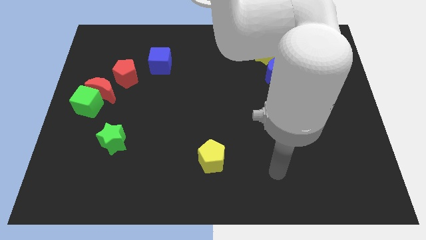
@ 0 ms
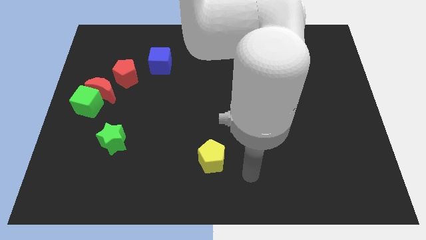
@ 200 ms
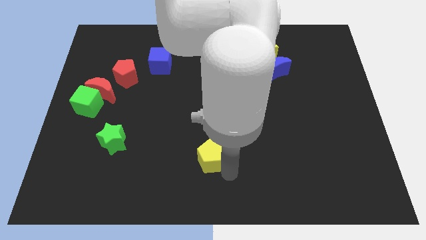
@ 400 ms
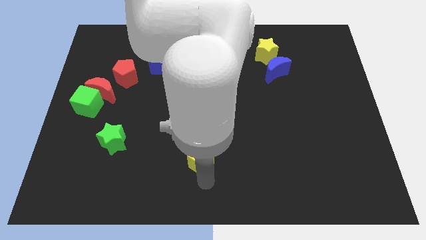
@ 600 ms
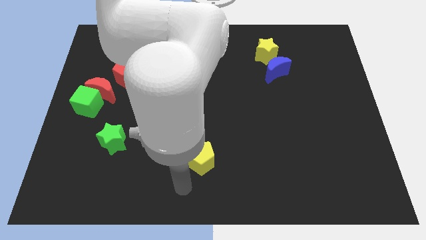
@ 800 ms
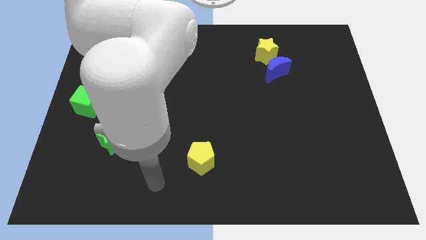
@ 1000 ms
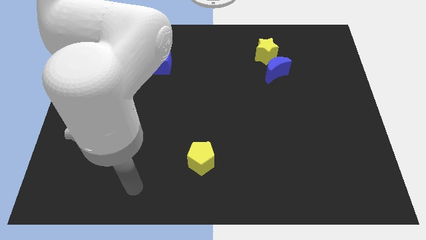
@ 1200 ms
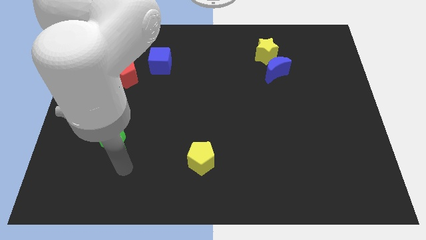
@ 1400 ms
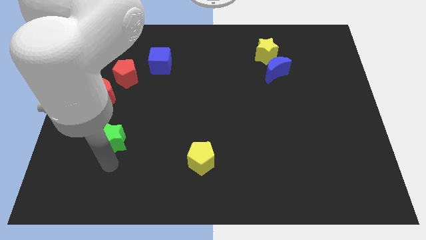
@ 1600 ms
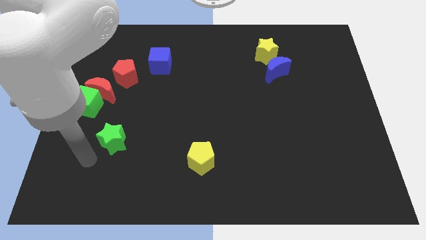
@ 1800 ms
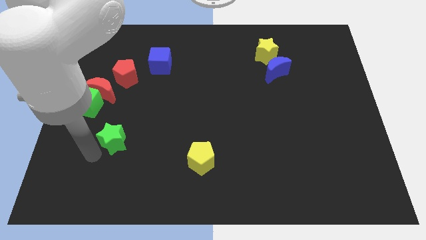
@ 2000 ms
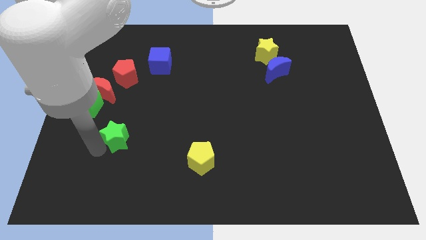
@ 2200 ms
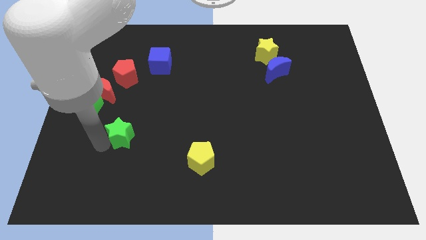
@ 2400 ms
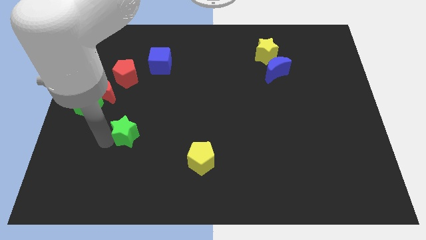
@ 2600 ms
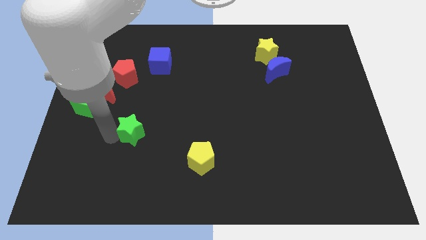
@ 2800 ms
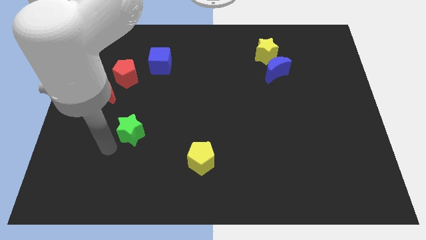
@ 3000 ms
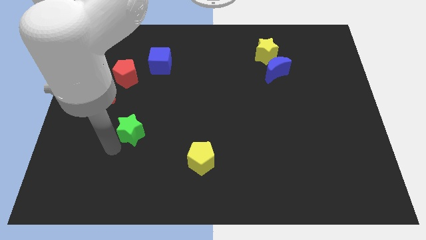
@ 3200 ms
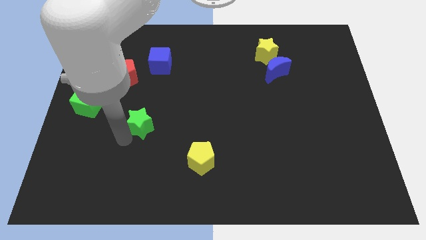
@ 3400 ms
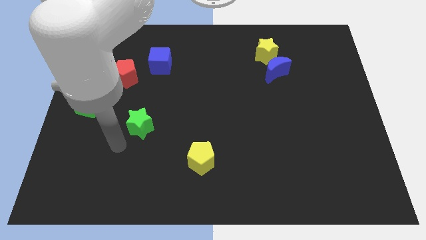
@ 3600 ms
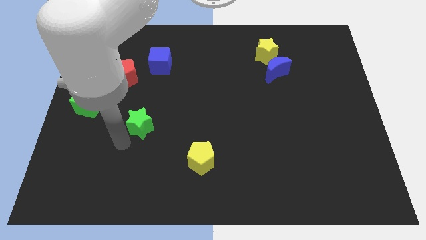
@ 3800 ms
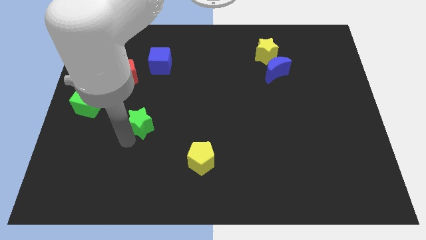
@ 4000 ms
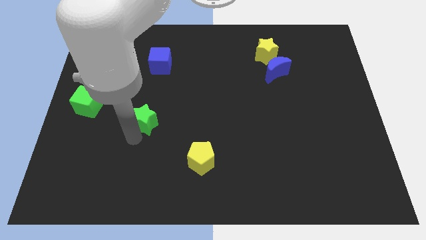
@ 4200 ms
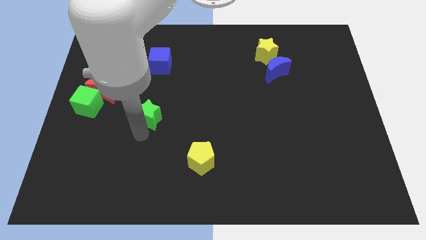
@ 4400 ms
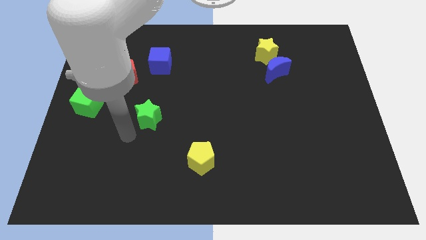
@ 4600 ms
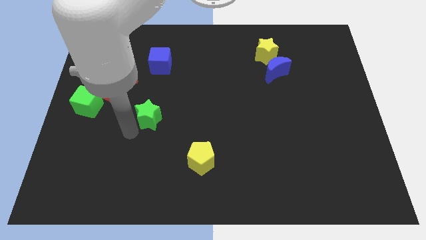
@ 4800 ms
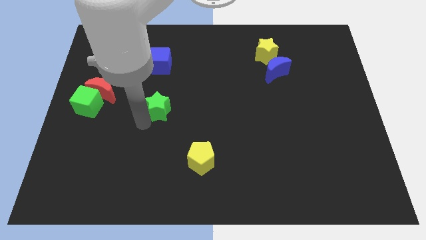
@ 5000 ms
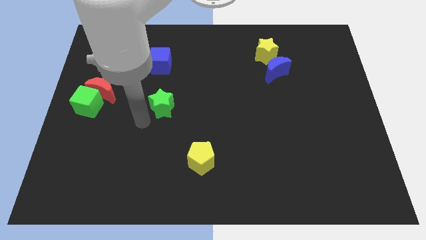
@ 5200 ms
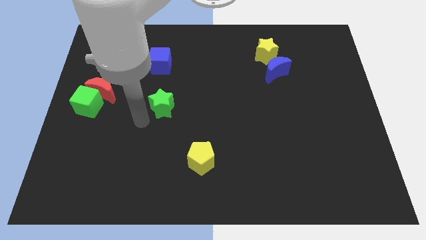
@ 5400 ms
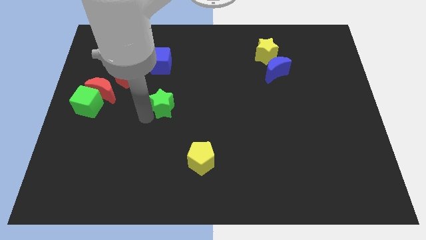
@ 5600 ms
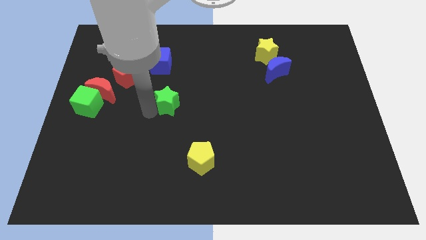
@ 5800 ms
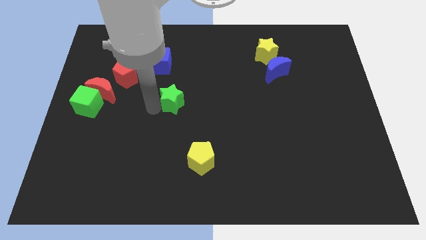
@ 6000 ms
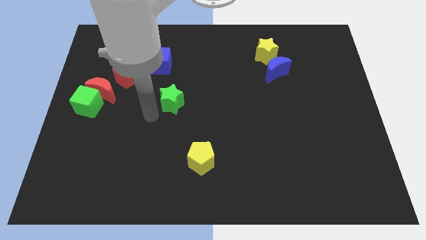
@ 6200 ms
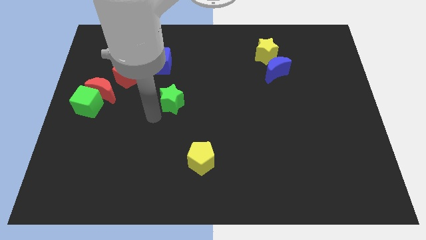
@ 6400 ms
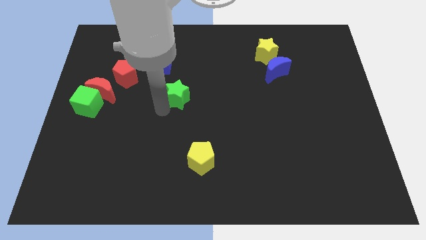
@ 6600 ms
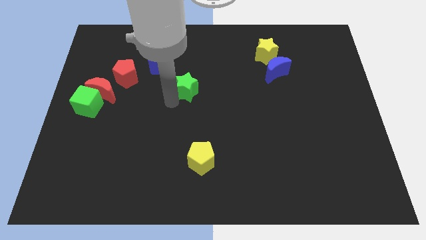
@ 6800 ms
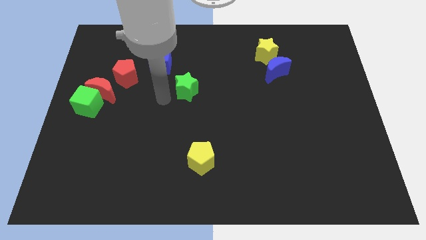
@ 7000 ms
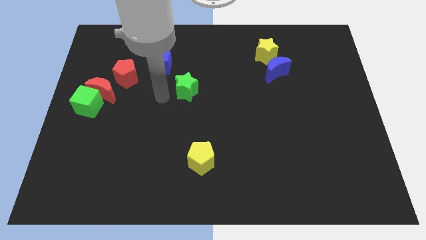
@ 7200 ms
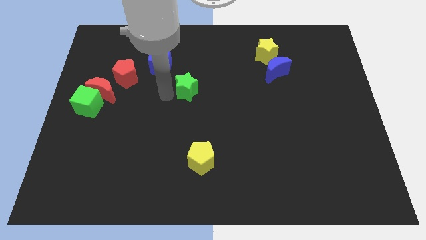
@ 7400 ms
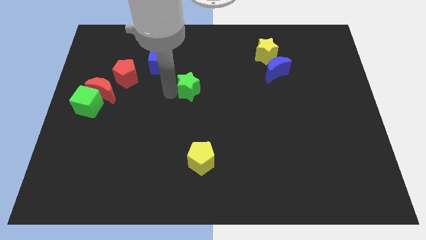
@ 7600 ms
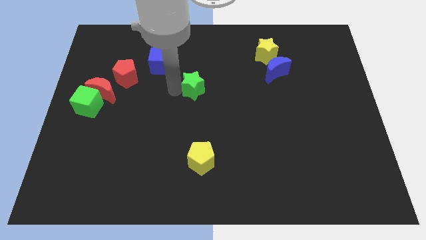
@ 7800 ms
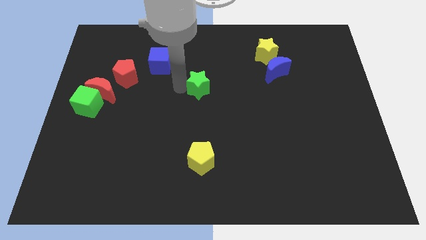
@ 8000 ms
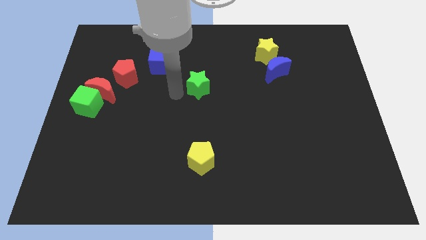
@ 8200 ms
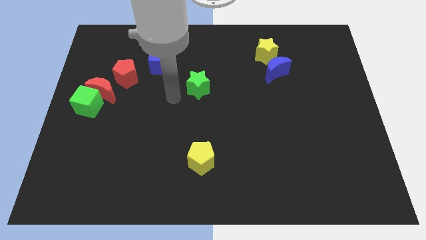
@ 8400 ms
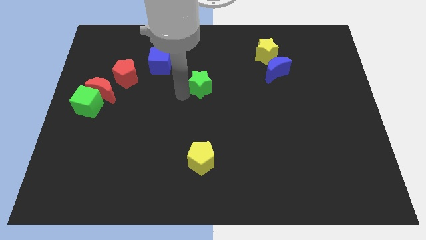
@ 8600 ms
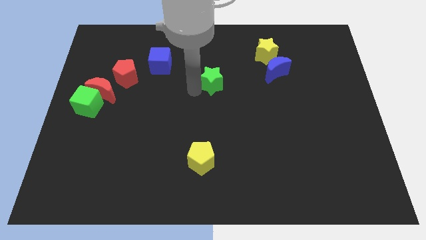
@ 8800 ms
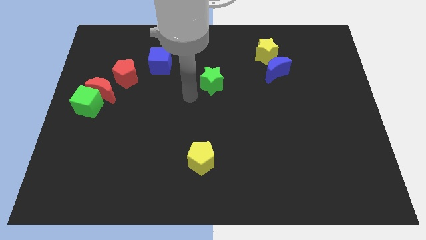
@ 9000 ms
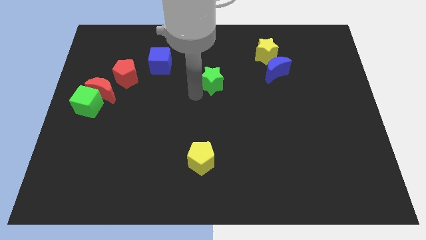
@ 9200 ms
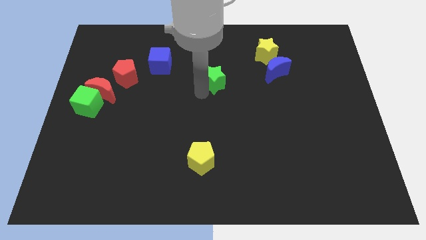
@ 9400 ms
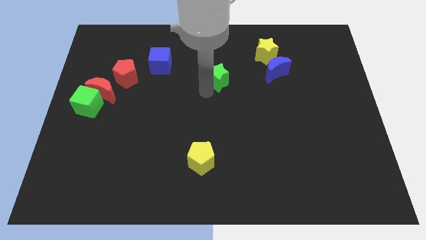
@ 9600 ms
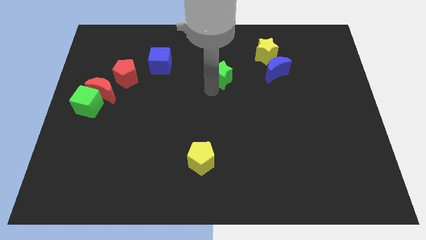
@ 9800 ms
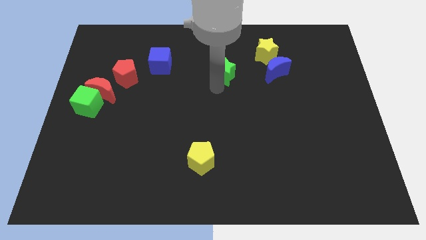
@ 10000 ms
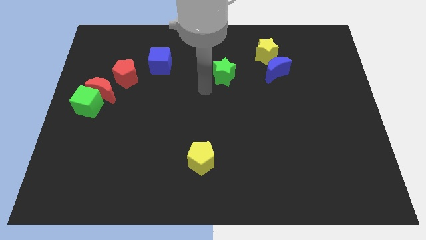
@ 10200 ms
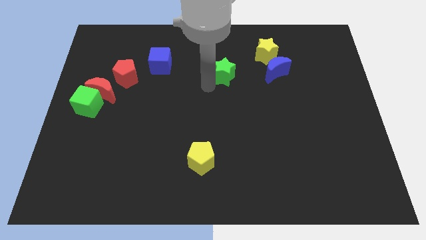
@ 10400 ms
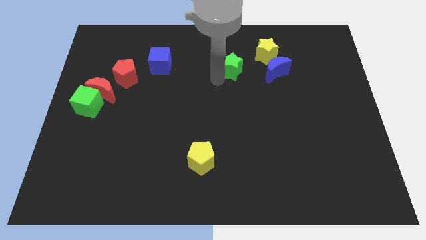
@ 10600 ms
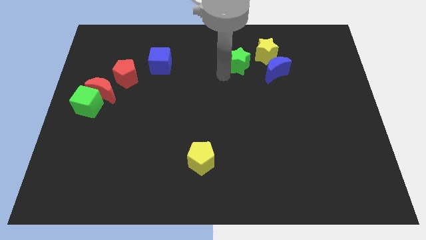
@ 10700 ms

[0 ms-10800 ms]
push the green star to the top left of the blue moon
